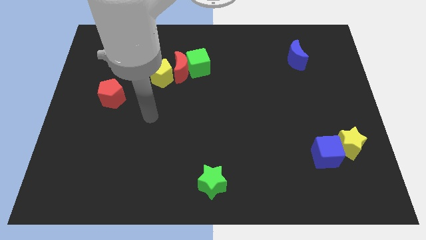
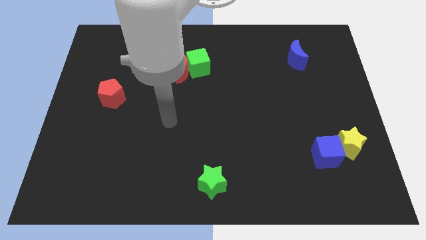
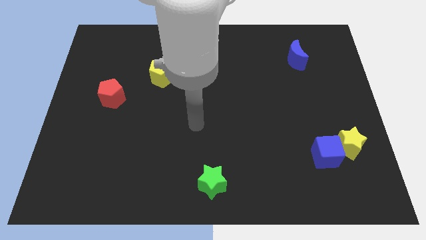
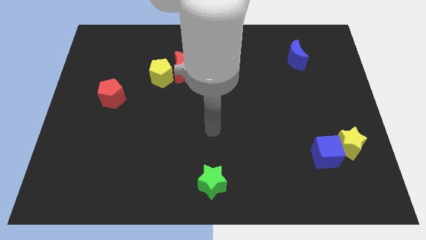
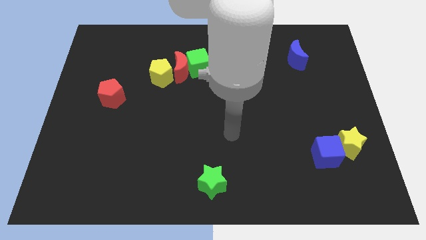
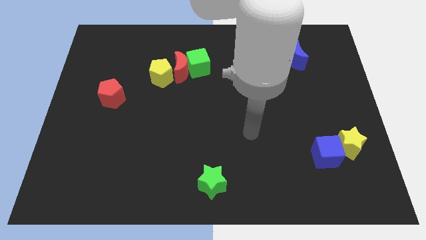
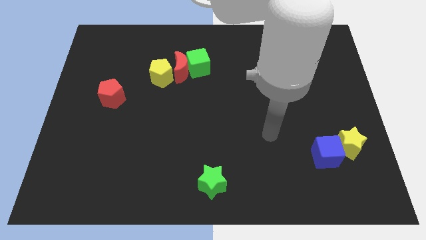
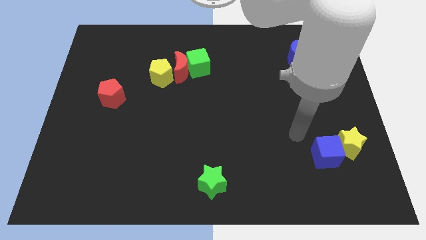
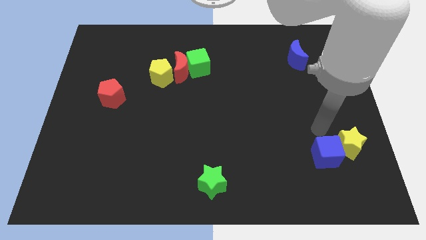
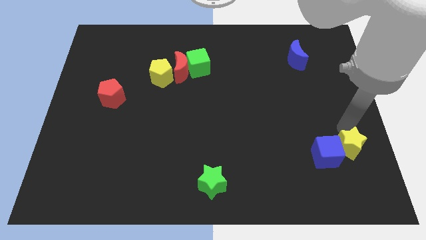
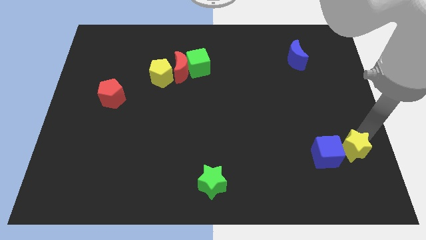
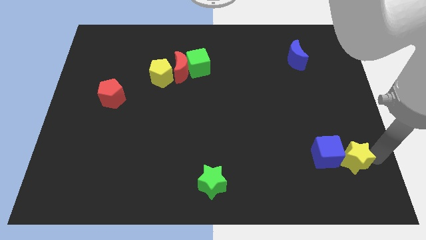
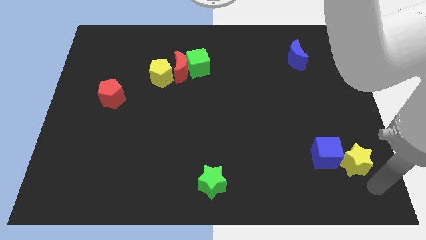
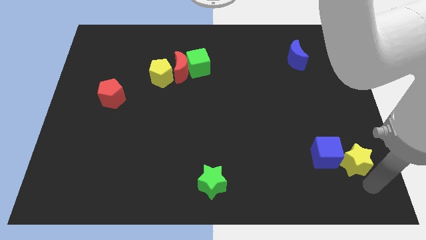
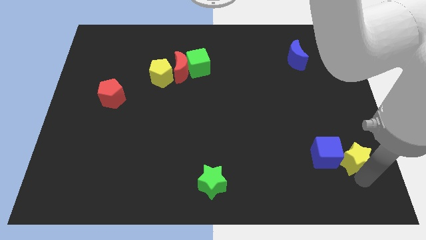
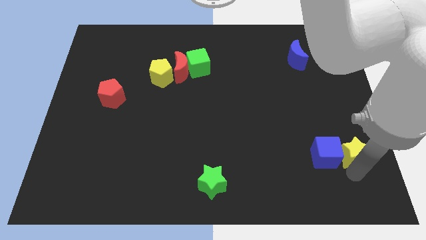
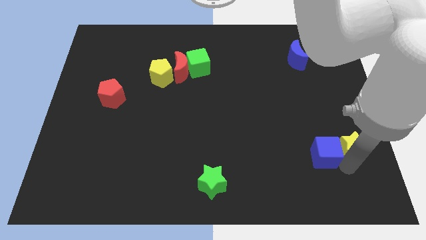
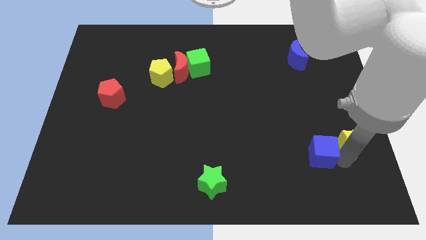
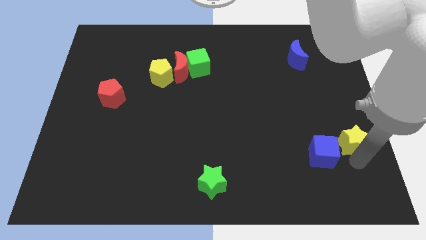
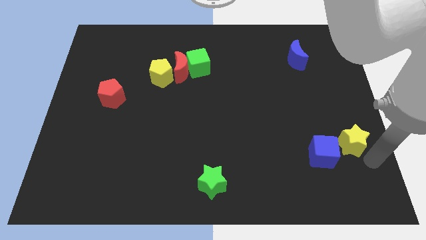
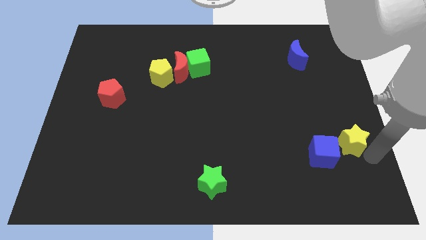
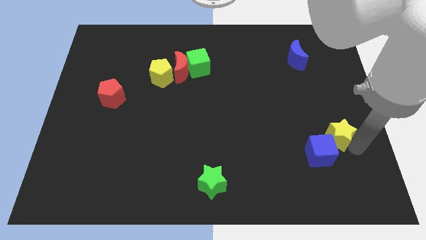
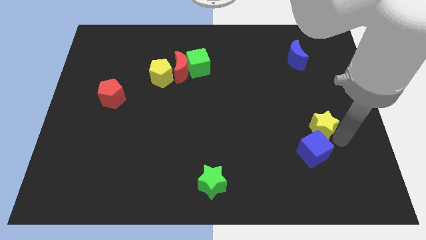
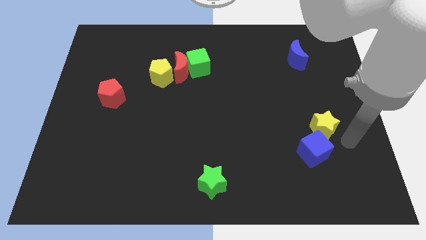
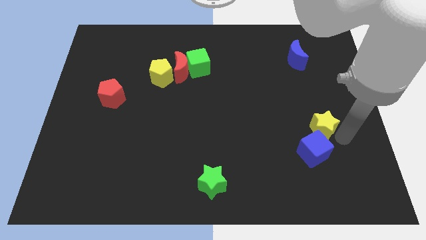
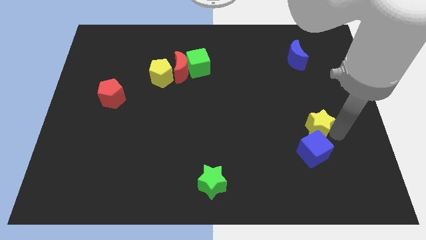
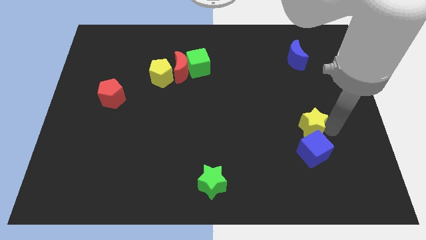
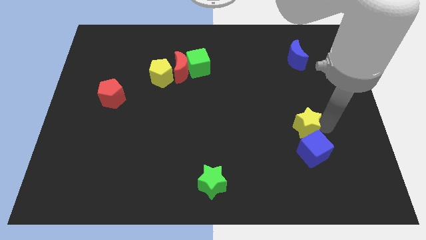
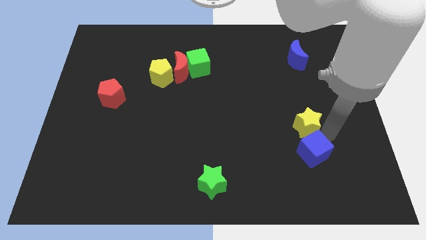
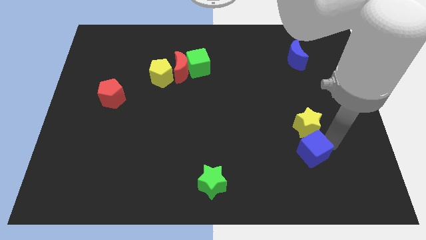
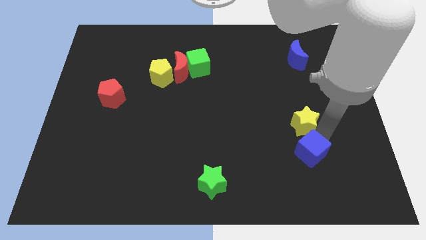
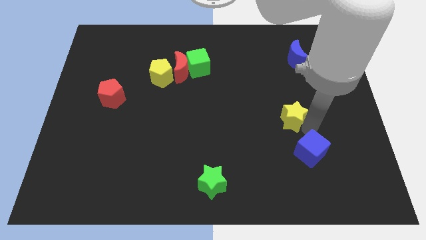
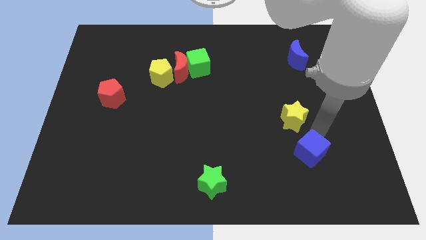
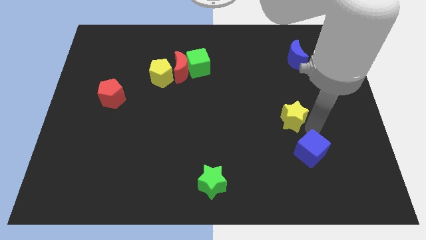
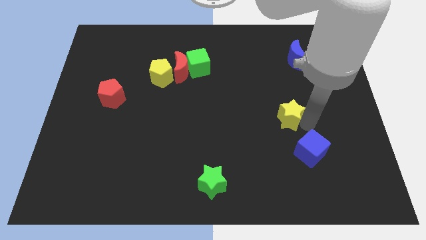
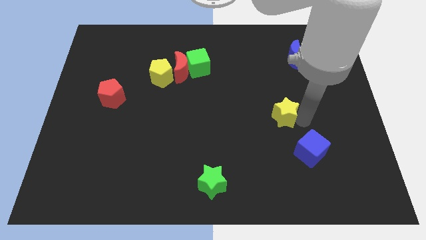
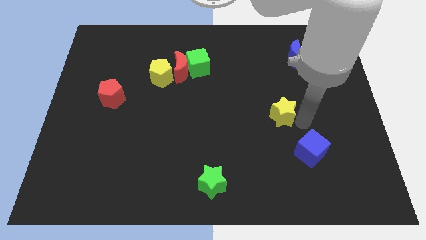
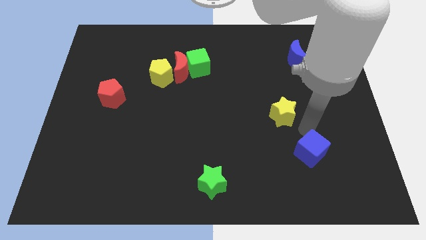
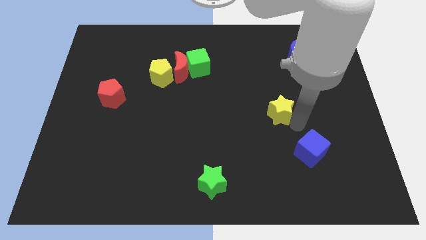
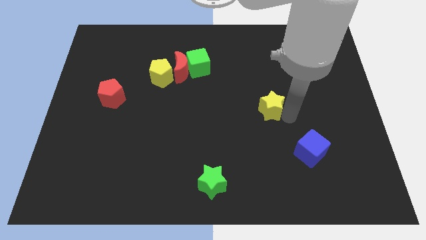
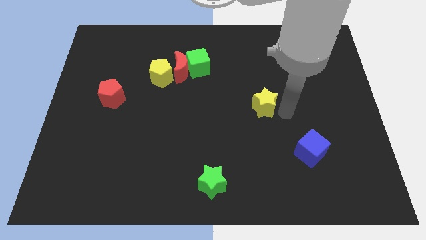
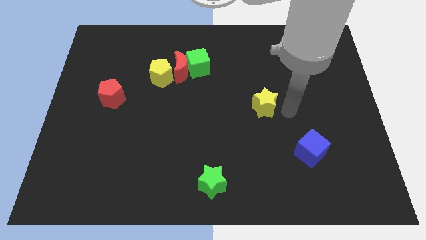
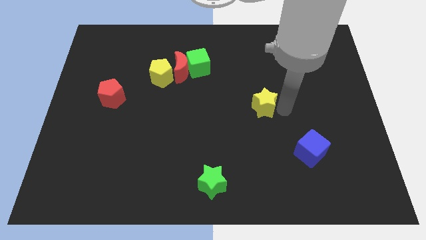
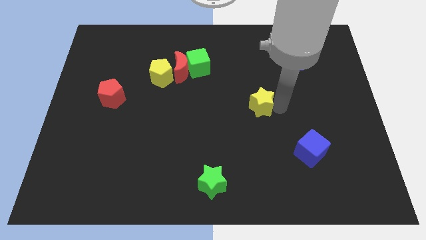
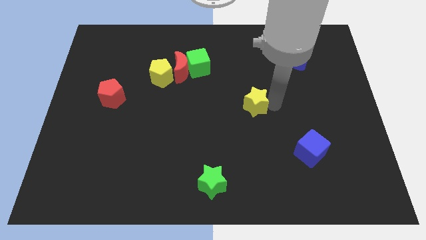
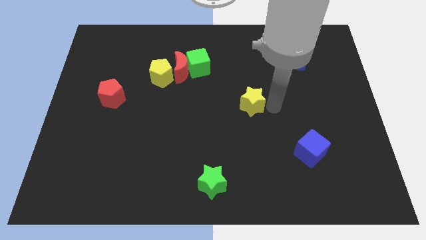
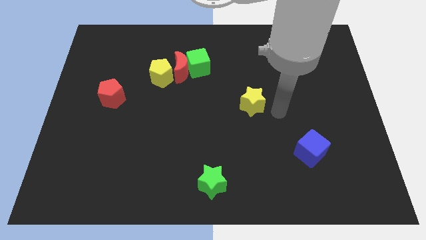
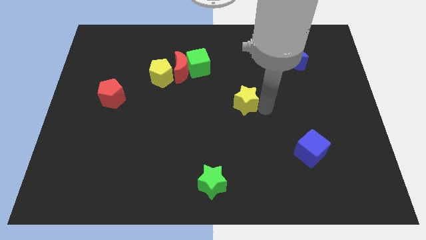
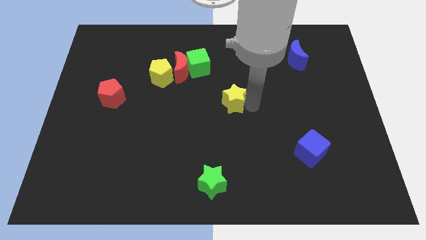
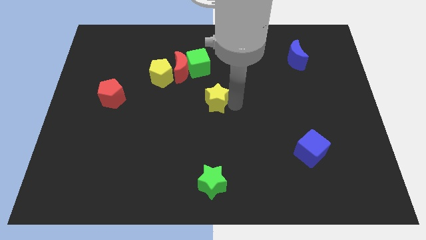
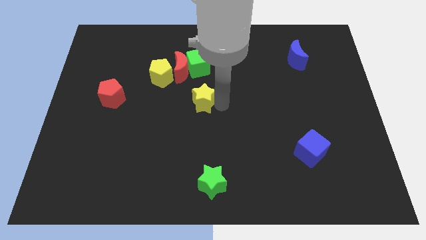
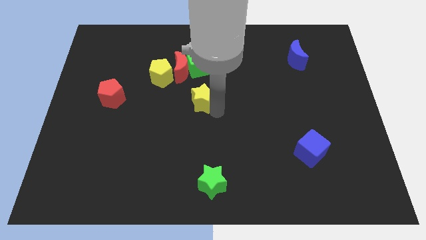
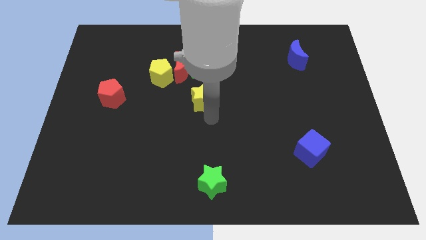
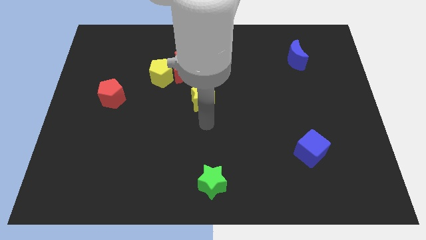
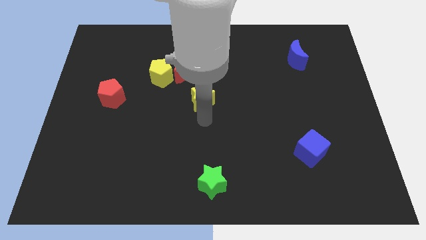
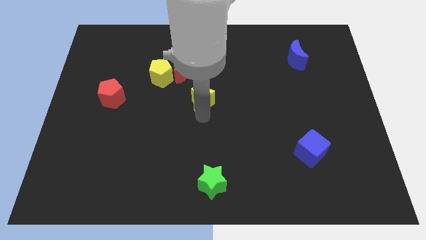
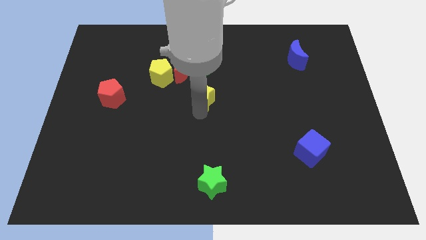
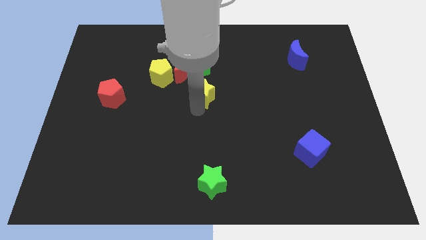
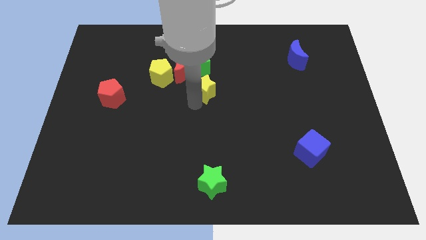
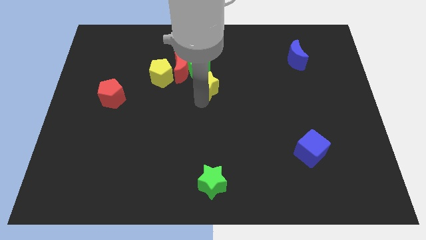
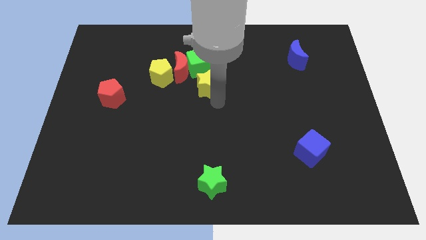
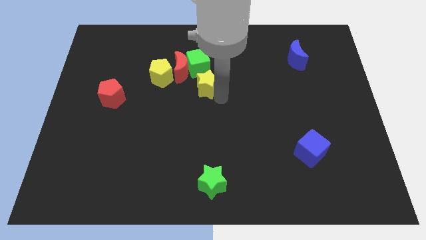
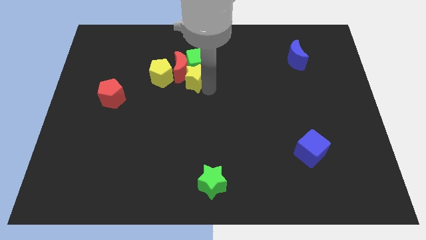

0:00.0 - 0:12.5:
move the yellow star towards the red moon
